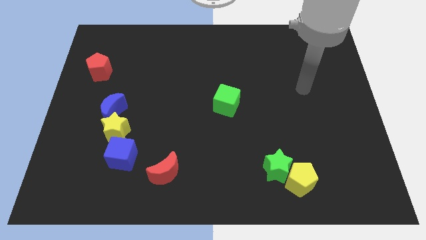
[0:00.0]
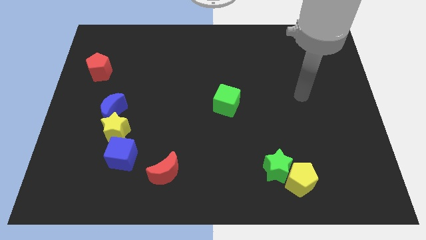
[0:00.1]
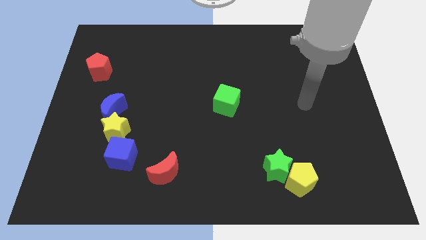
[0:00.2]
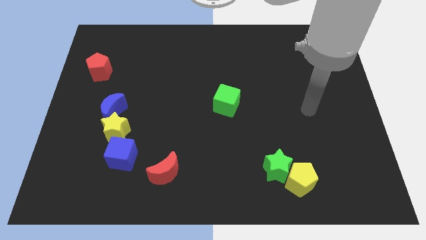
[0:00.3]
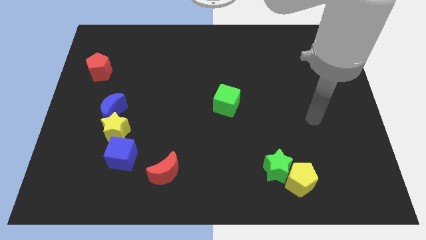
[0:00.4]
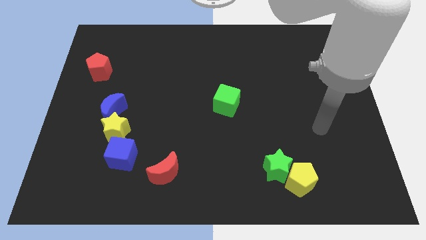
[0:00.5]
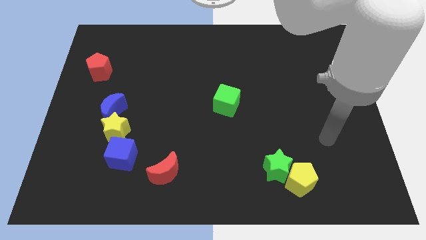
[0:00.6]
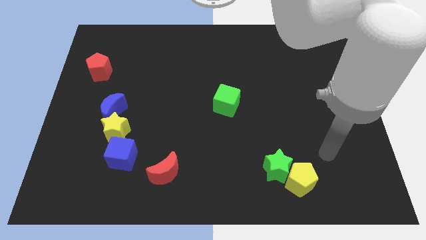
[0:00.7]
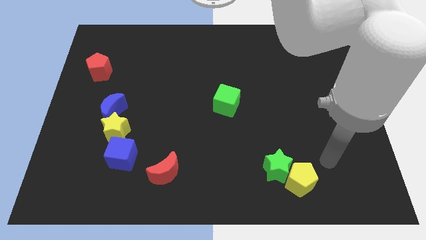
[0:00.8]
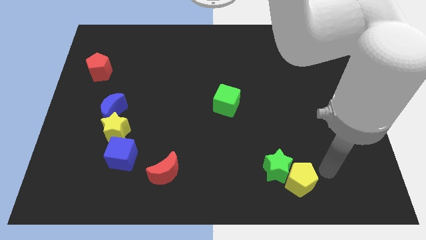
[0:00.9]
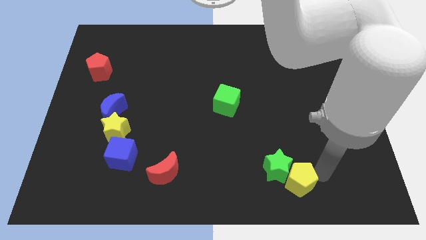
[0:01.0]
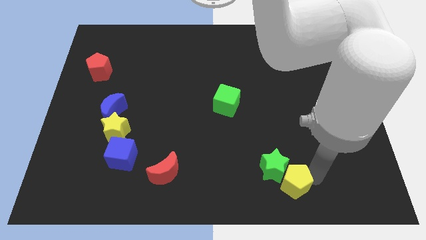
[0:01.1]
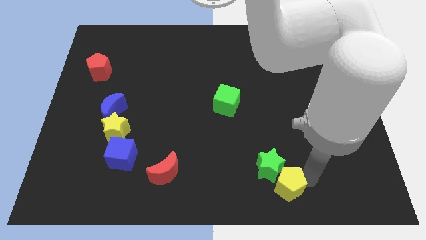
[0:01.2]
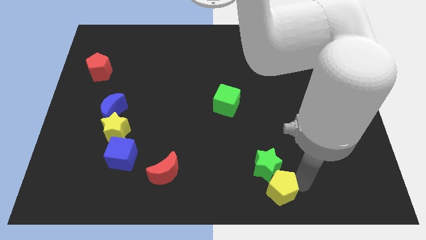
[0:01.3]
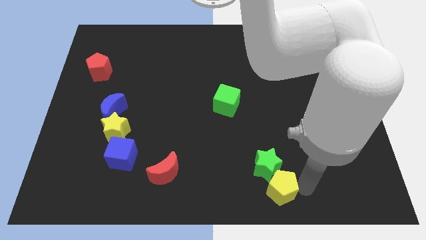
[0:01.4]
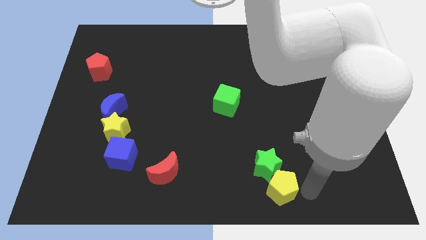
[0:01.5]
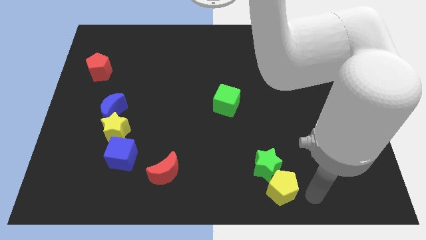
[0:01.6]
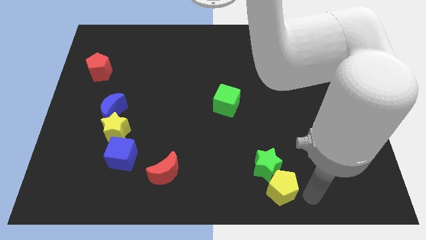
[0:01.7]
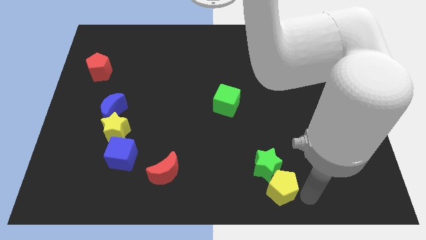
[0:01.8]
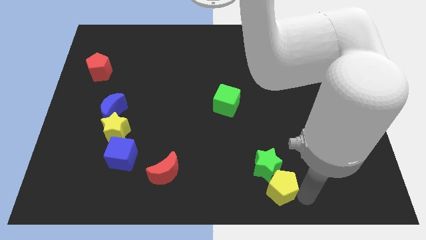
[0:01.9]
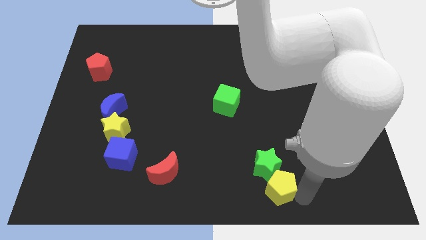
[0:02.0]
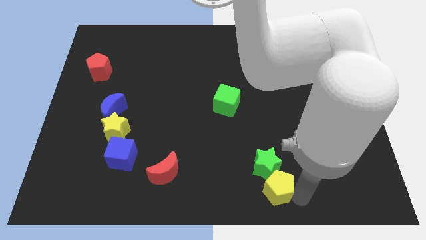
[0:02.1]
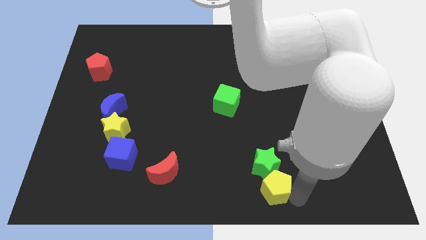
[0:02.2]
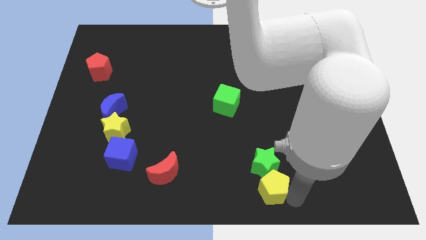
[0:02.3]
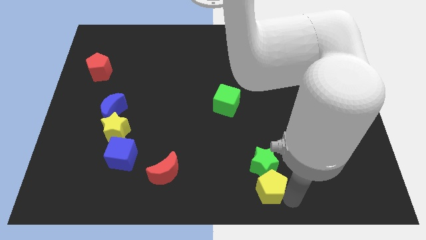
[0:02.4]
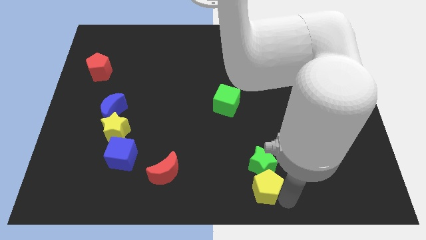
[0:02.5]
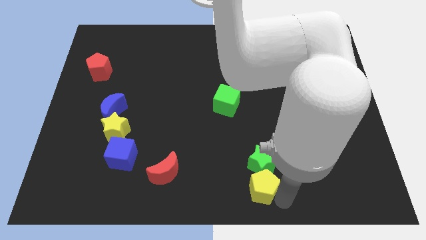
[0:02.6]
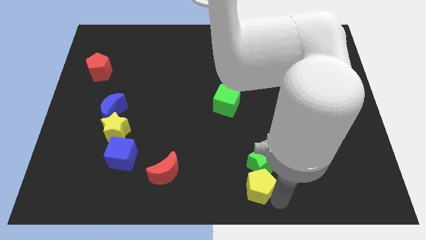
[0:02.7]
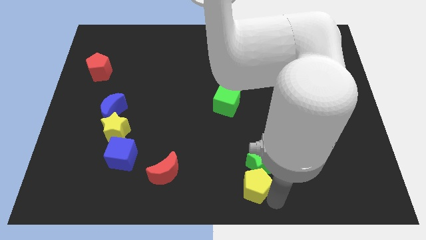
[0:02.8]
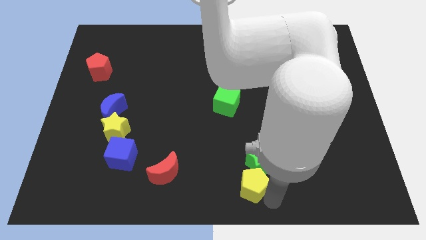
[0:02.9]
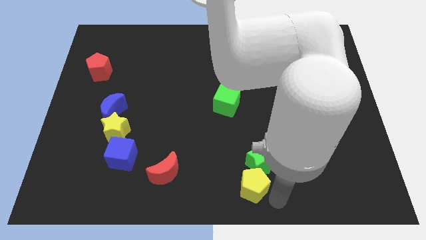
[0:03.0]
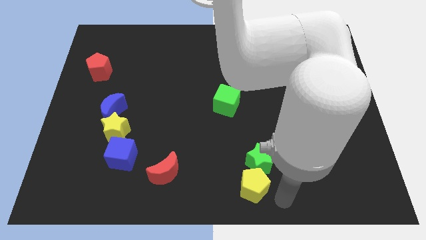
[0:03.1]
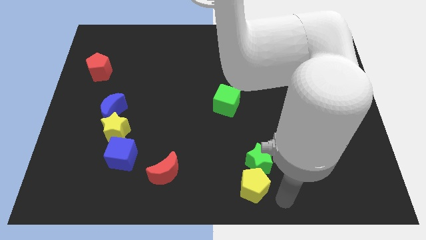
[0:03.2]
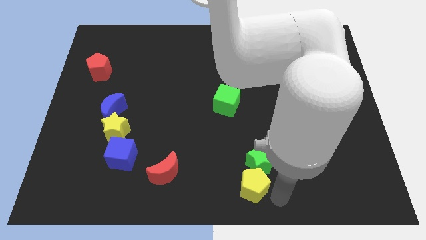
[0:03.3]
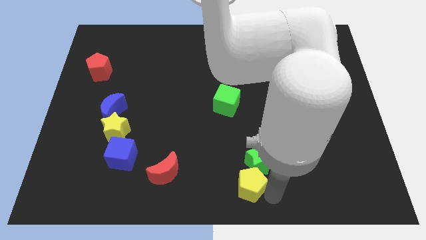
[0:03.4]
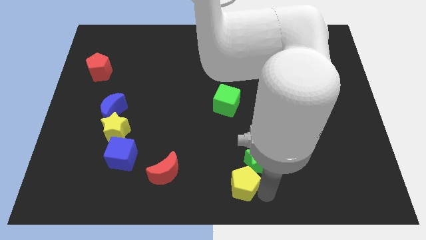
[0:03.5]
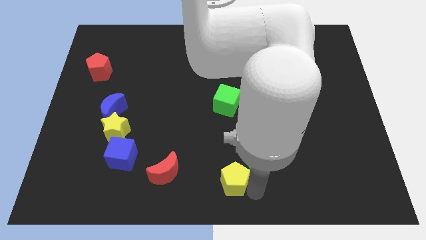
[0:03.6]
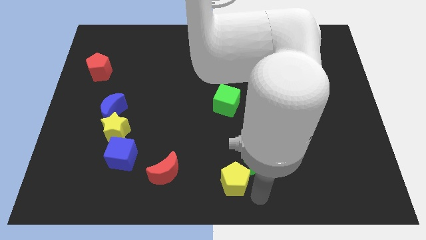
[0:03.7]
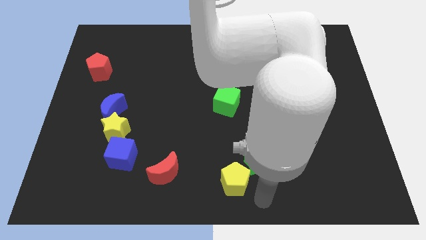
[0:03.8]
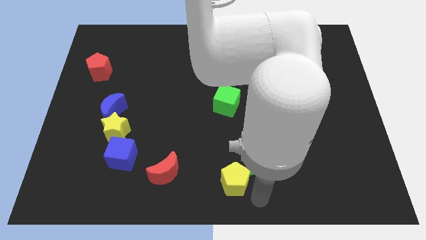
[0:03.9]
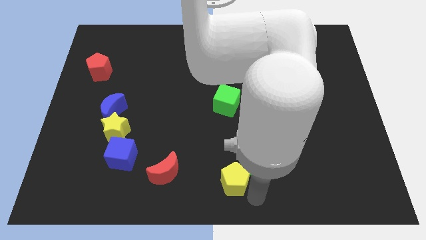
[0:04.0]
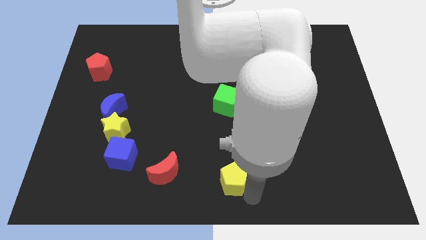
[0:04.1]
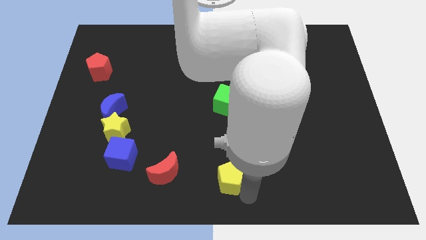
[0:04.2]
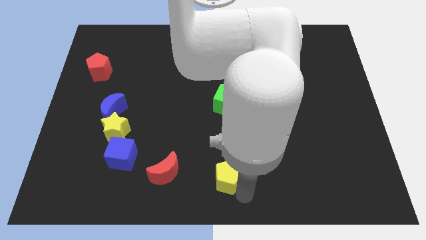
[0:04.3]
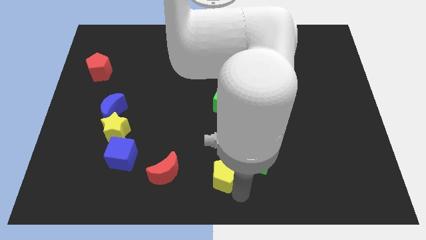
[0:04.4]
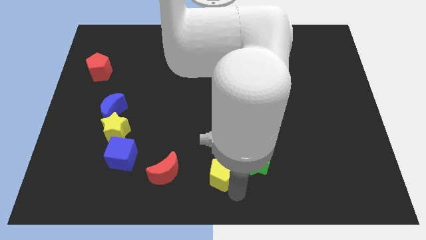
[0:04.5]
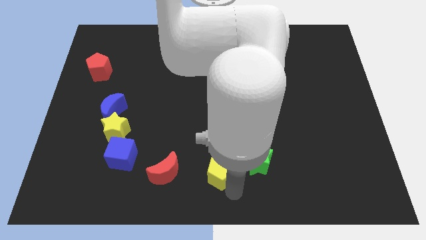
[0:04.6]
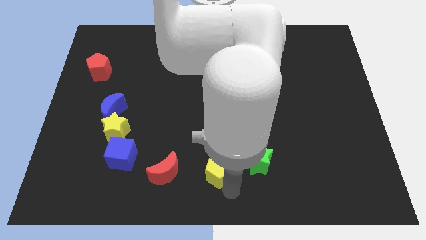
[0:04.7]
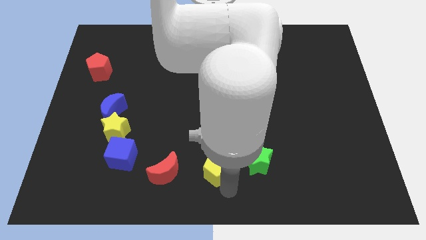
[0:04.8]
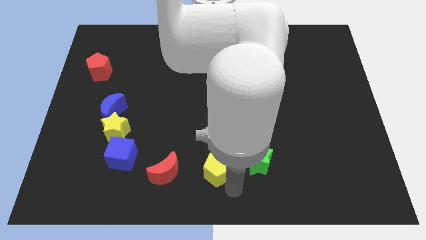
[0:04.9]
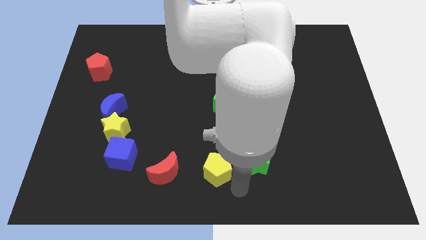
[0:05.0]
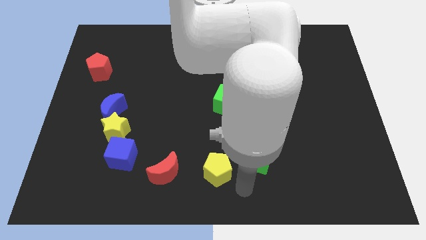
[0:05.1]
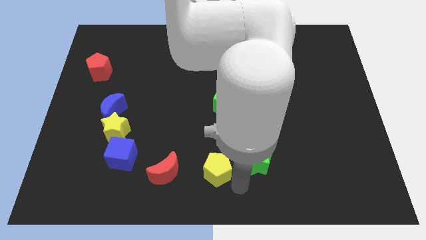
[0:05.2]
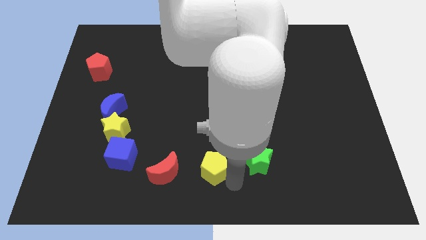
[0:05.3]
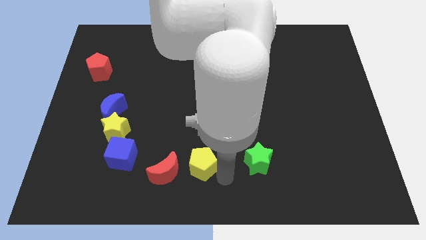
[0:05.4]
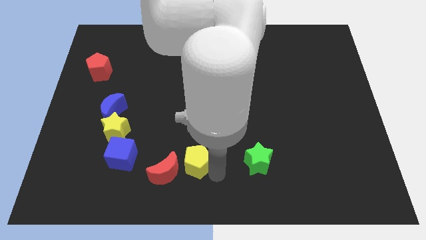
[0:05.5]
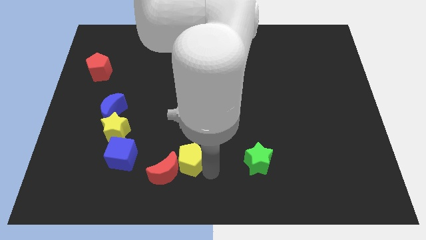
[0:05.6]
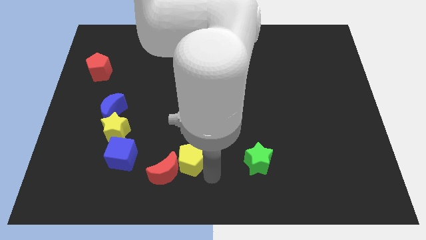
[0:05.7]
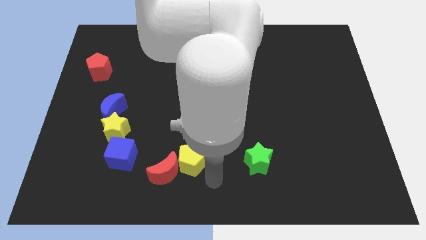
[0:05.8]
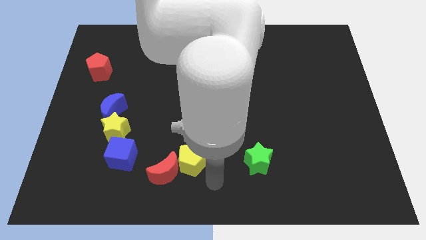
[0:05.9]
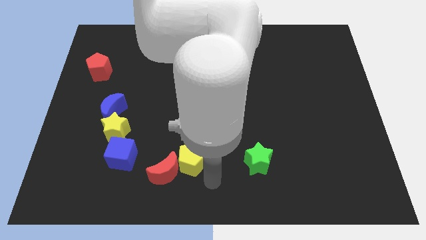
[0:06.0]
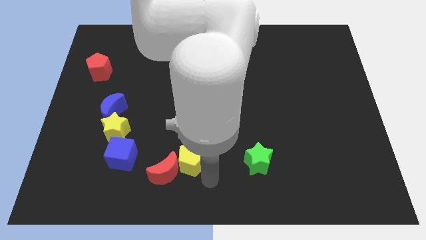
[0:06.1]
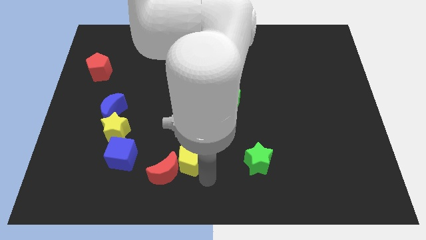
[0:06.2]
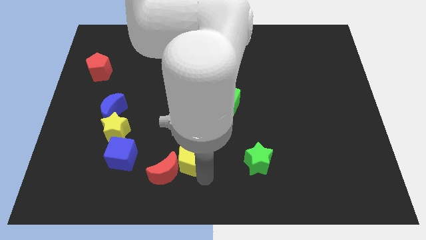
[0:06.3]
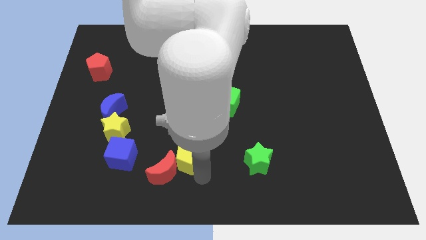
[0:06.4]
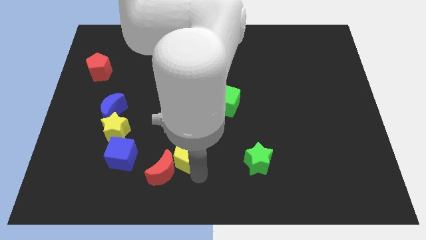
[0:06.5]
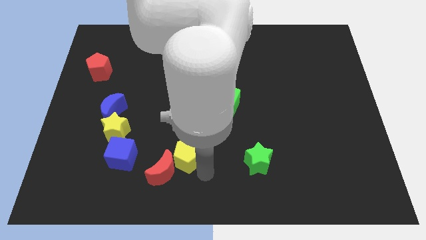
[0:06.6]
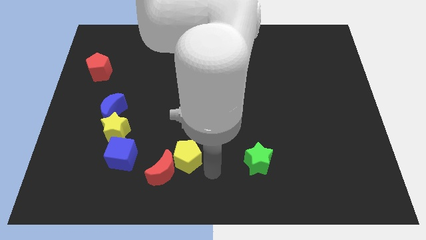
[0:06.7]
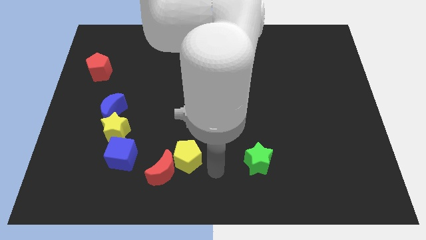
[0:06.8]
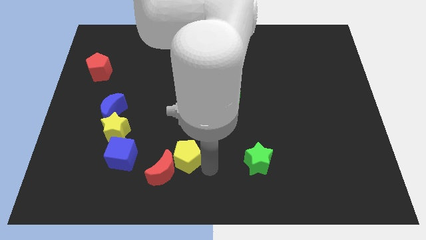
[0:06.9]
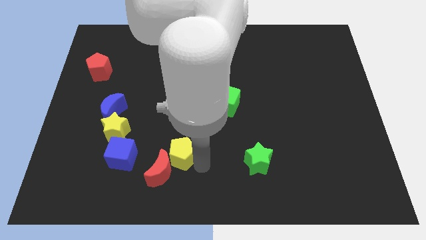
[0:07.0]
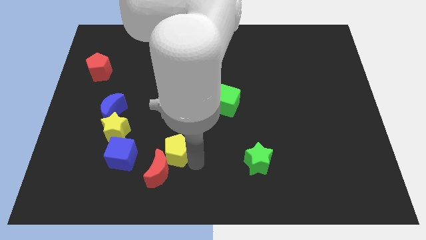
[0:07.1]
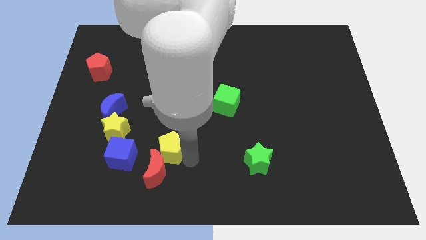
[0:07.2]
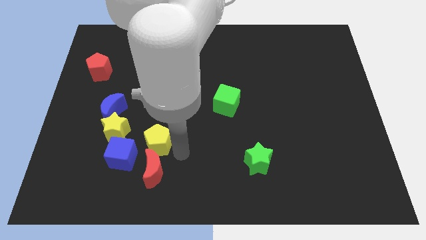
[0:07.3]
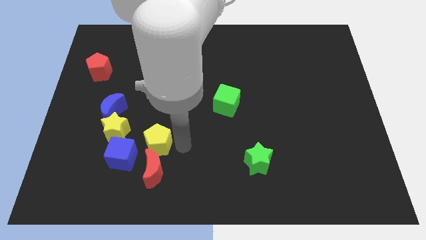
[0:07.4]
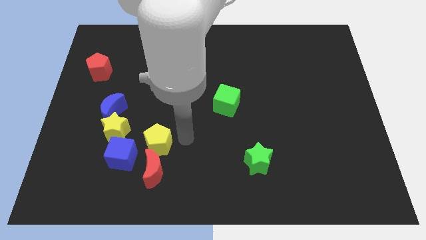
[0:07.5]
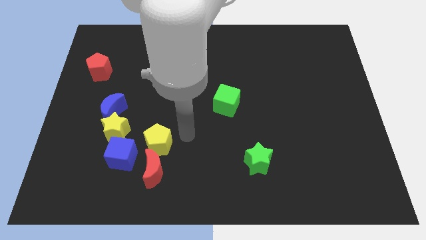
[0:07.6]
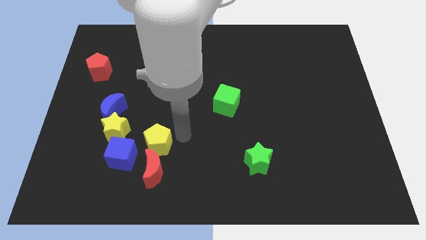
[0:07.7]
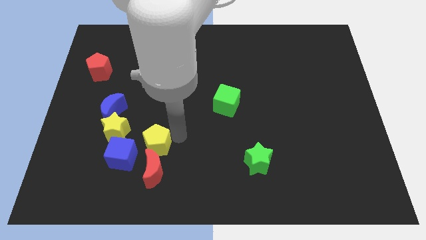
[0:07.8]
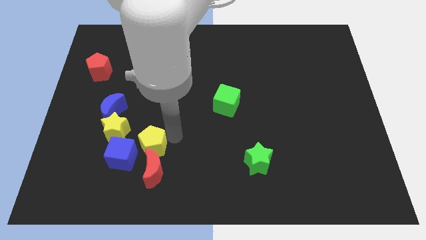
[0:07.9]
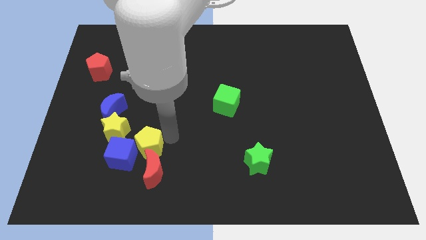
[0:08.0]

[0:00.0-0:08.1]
push the yellow pentagon next to the blue cube
